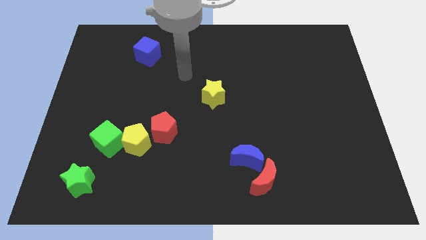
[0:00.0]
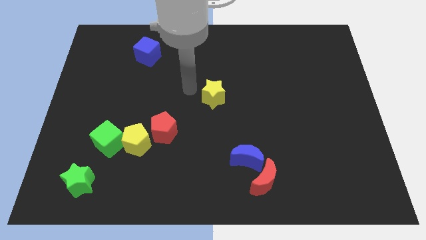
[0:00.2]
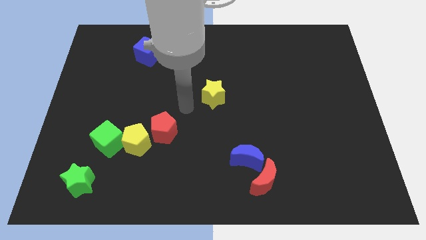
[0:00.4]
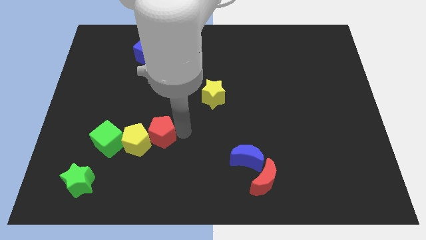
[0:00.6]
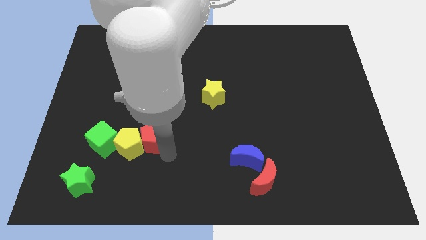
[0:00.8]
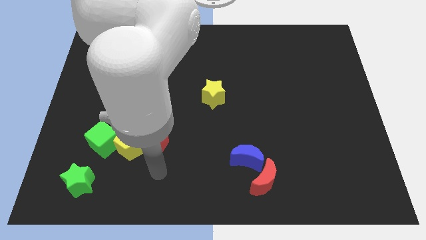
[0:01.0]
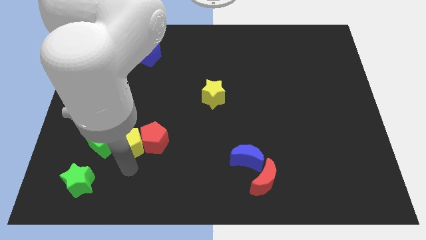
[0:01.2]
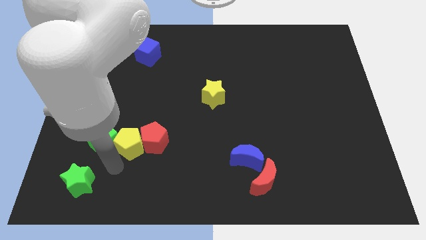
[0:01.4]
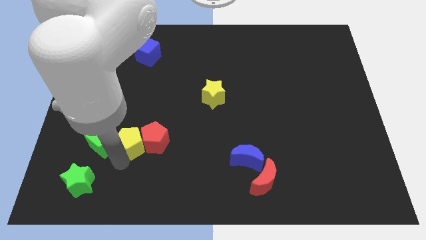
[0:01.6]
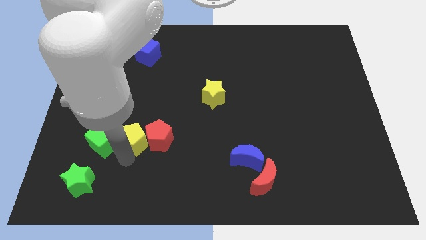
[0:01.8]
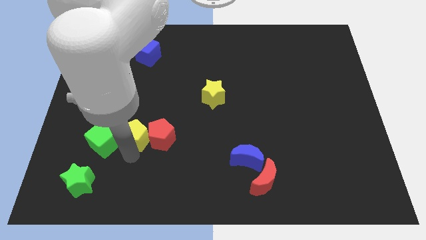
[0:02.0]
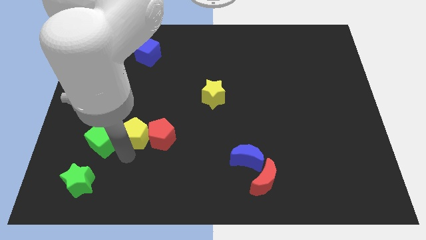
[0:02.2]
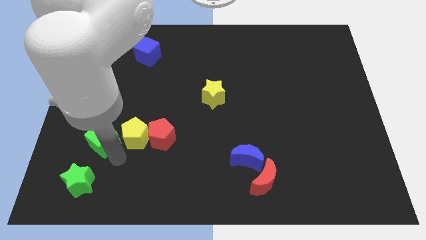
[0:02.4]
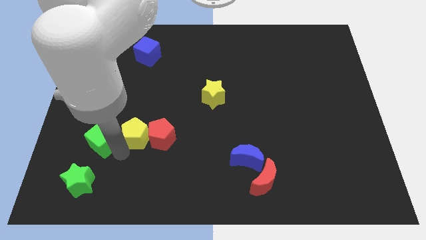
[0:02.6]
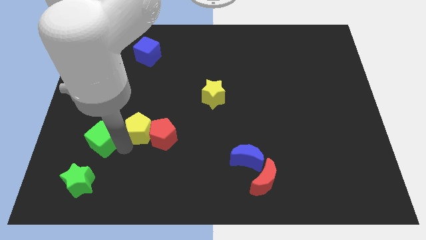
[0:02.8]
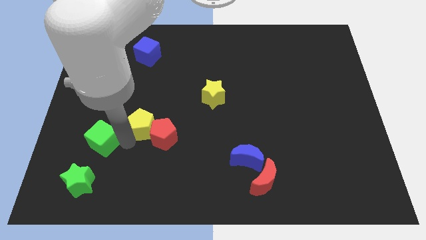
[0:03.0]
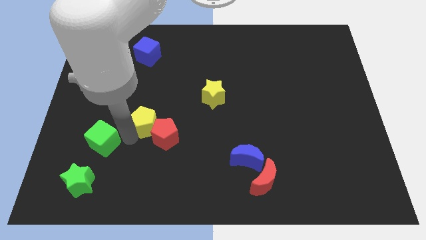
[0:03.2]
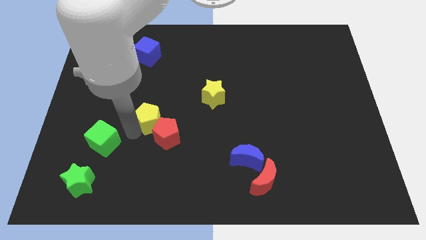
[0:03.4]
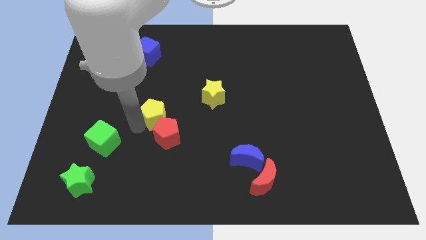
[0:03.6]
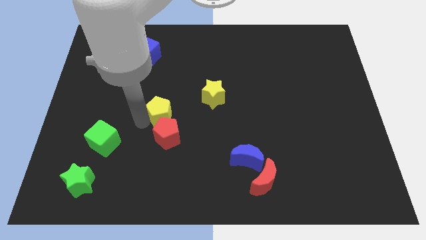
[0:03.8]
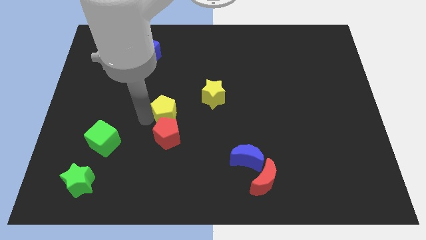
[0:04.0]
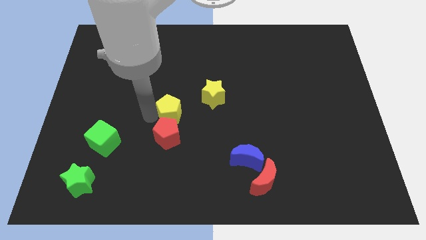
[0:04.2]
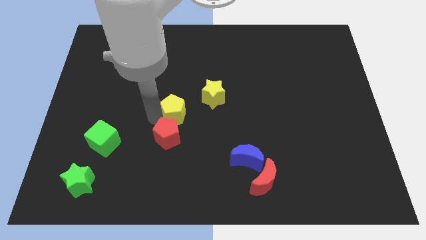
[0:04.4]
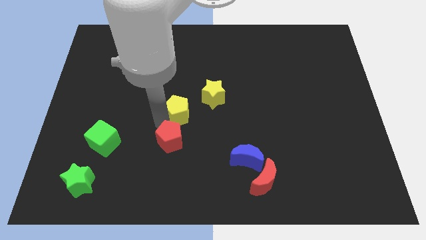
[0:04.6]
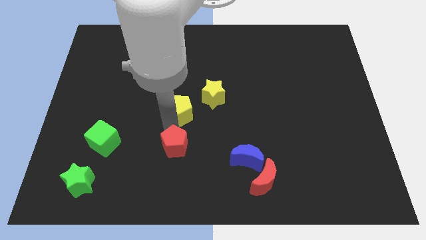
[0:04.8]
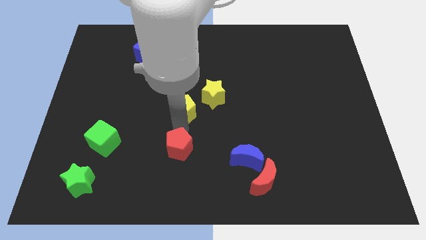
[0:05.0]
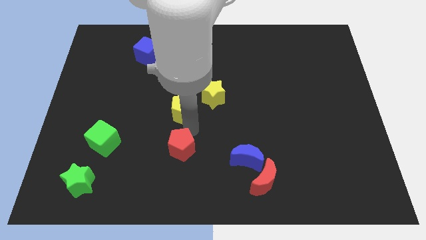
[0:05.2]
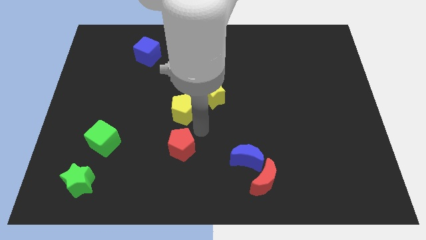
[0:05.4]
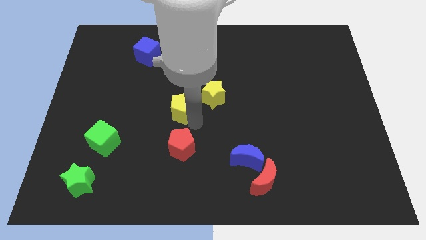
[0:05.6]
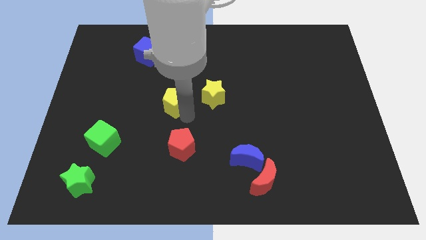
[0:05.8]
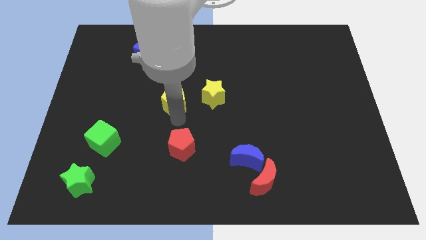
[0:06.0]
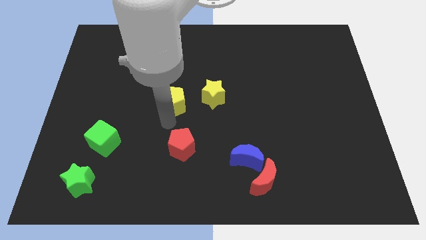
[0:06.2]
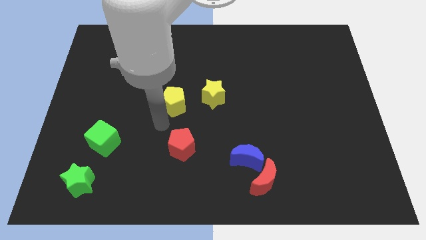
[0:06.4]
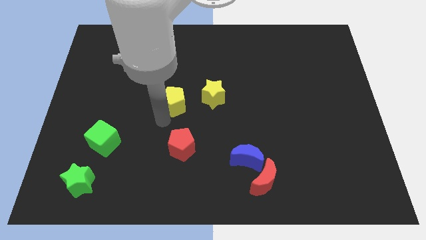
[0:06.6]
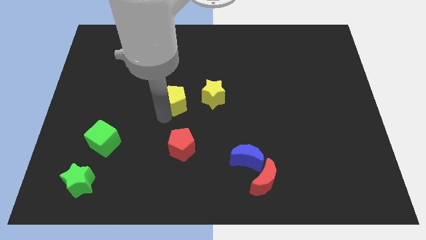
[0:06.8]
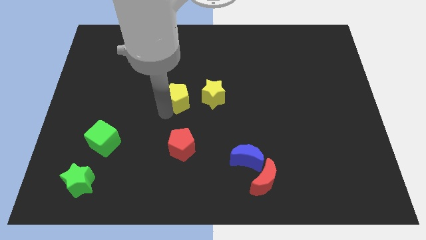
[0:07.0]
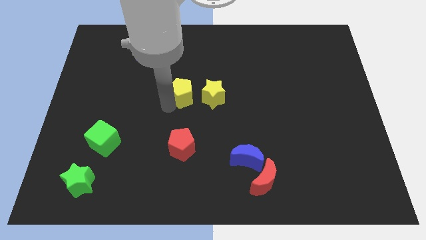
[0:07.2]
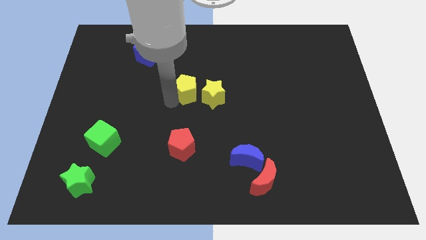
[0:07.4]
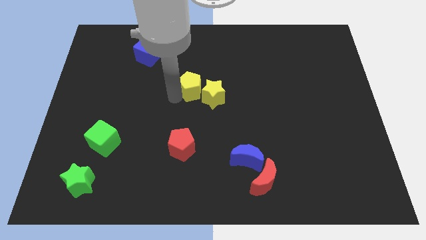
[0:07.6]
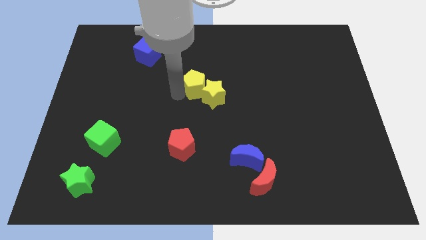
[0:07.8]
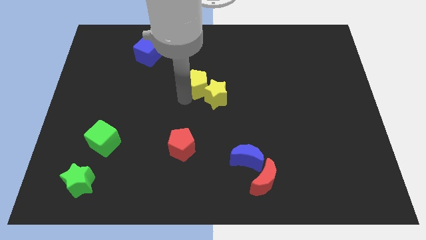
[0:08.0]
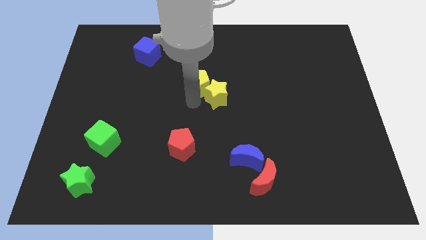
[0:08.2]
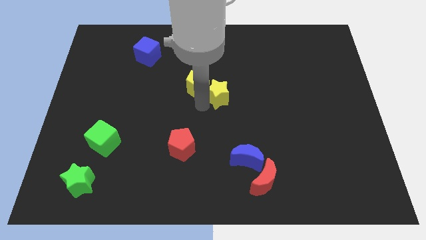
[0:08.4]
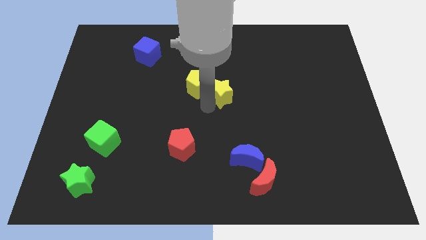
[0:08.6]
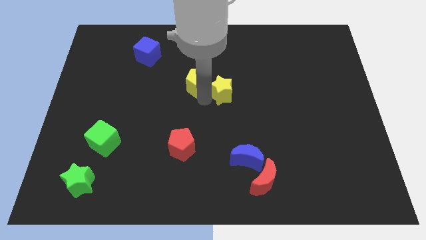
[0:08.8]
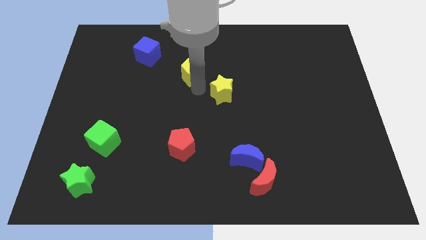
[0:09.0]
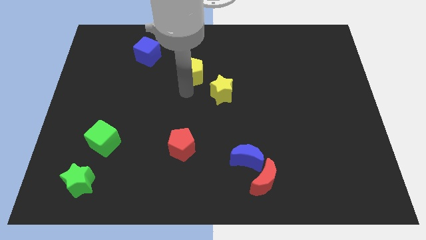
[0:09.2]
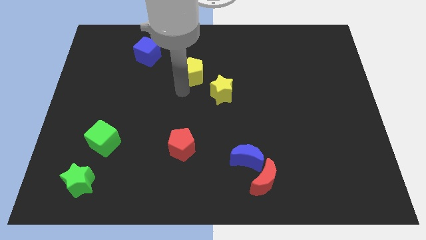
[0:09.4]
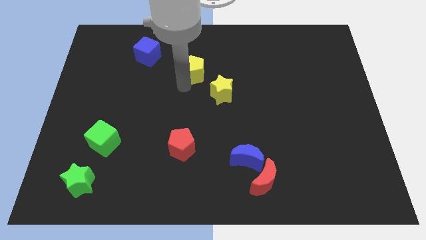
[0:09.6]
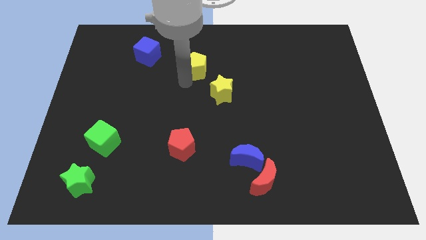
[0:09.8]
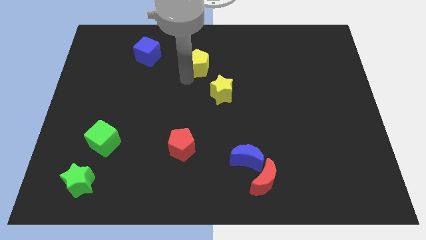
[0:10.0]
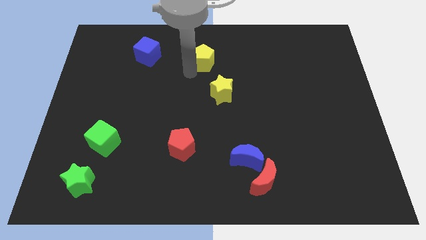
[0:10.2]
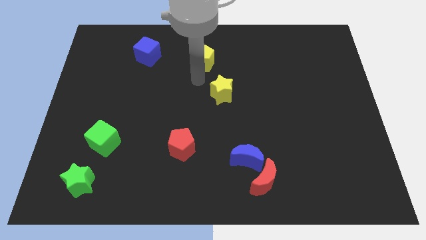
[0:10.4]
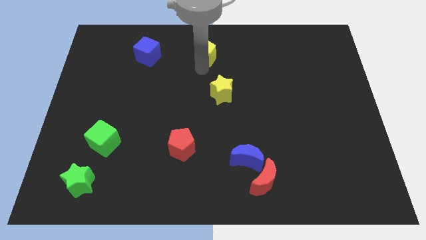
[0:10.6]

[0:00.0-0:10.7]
push the yellow pentagon to the towards your base

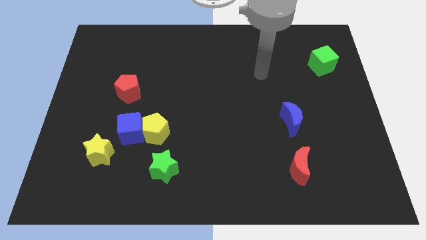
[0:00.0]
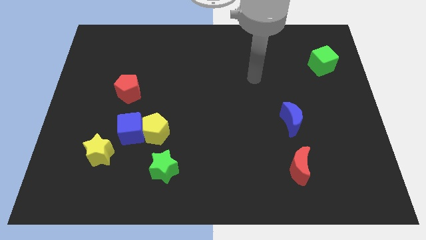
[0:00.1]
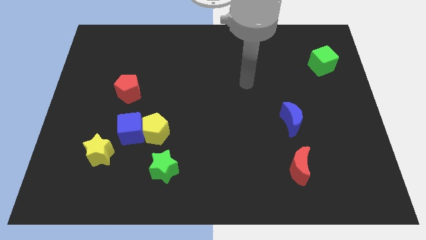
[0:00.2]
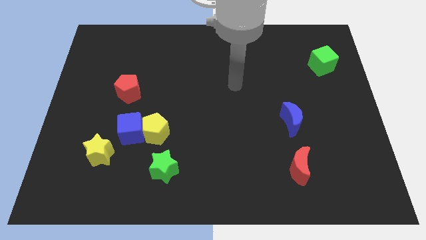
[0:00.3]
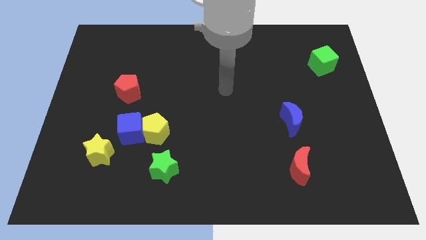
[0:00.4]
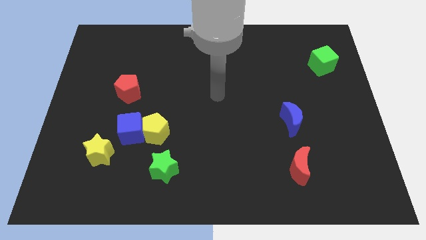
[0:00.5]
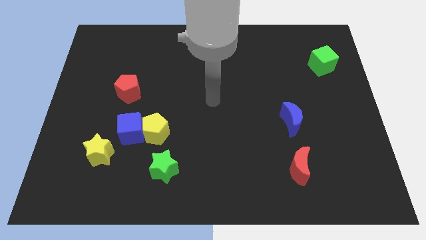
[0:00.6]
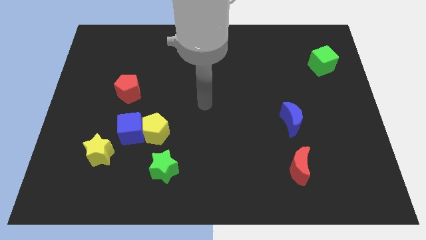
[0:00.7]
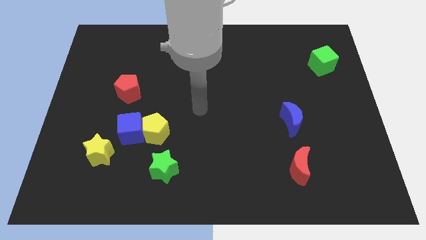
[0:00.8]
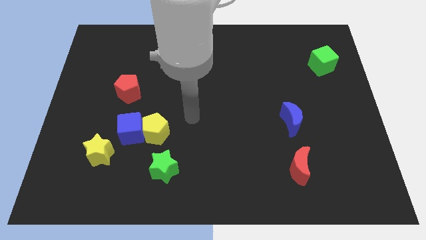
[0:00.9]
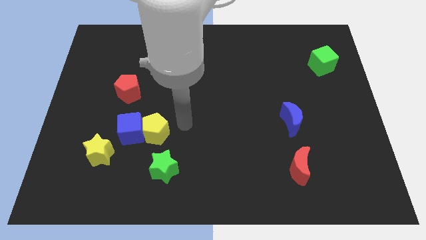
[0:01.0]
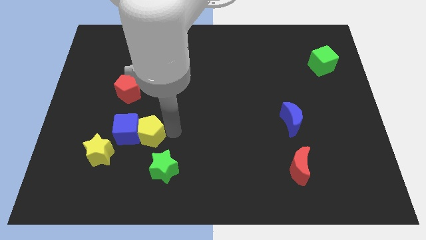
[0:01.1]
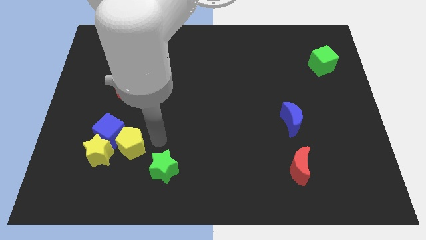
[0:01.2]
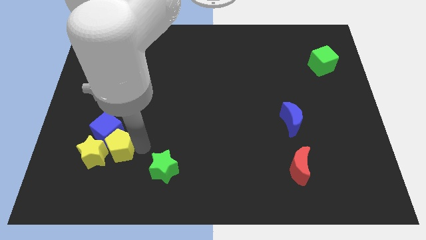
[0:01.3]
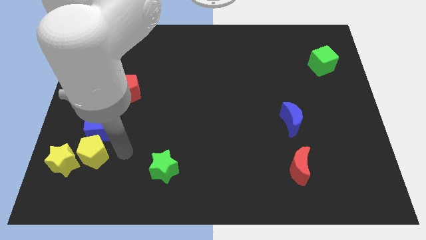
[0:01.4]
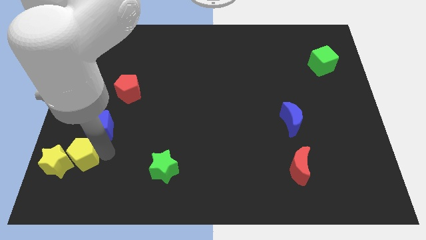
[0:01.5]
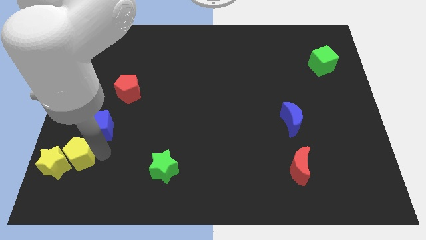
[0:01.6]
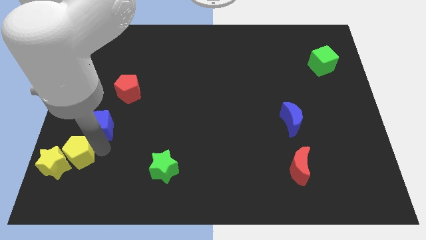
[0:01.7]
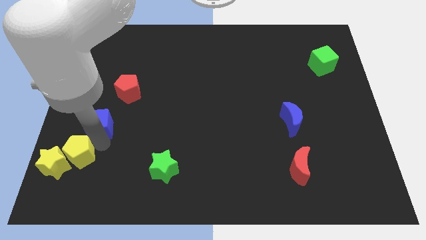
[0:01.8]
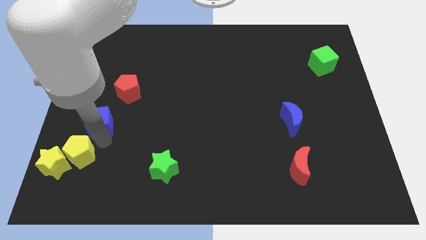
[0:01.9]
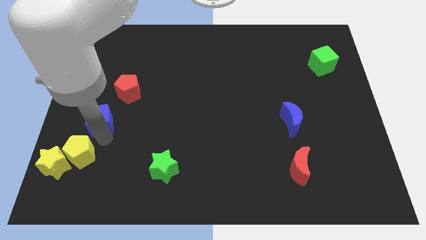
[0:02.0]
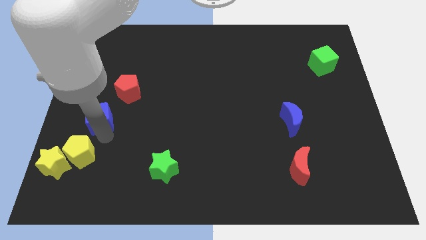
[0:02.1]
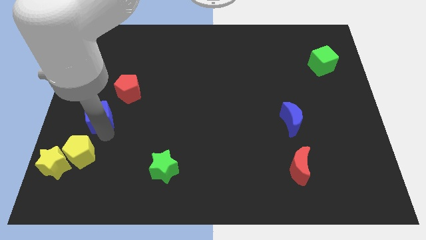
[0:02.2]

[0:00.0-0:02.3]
put the blue cube to the left side
